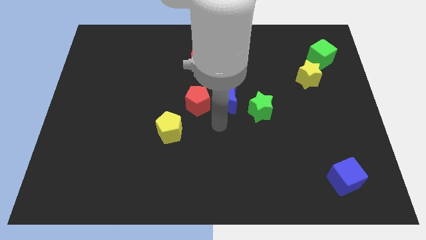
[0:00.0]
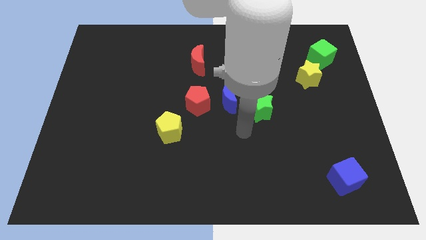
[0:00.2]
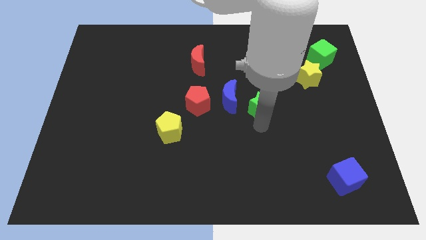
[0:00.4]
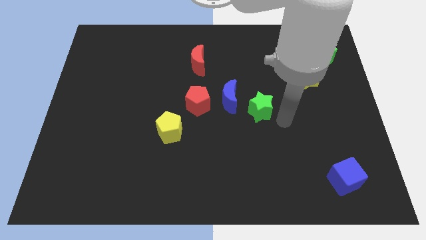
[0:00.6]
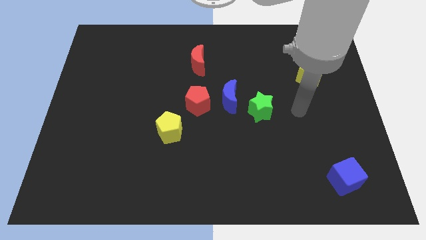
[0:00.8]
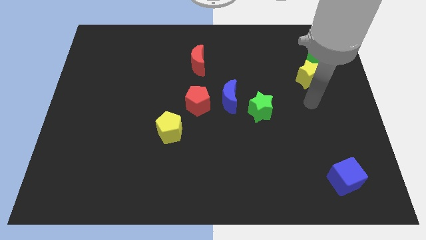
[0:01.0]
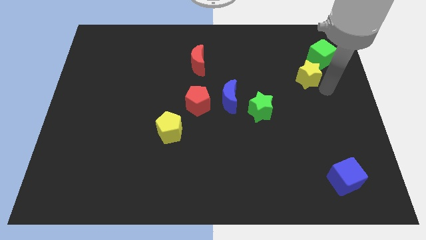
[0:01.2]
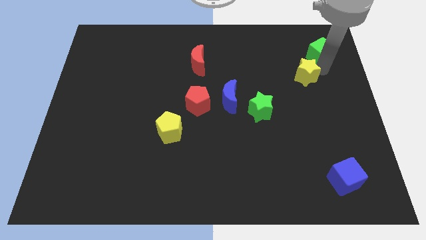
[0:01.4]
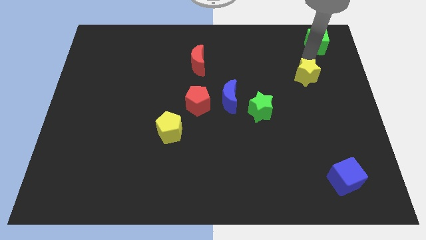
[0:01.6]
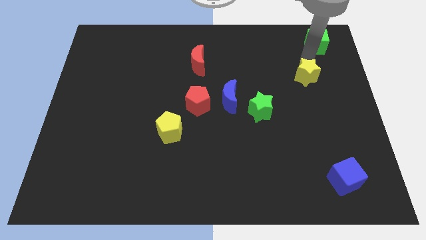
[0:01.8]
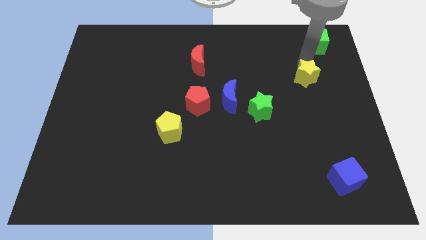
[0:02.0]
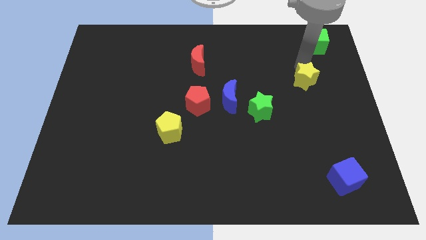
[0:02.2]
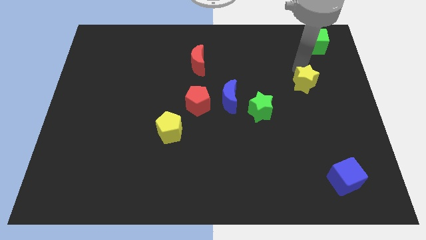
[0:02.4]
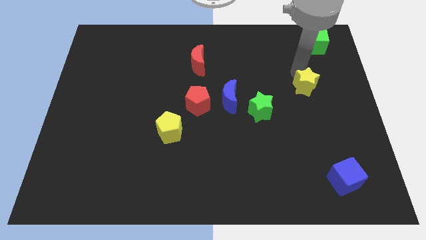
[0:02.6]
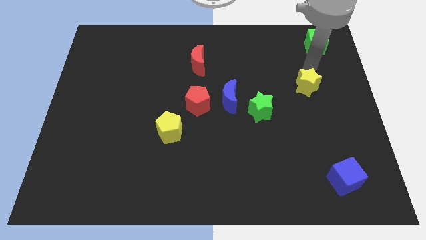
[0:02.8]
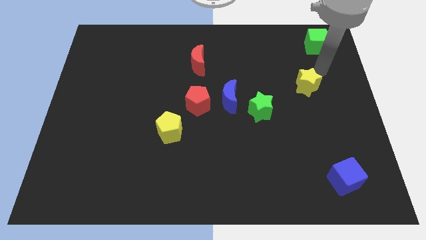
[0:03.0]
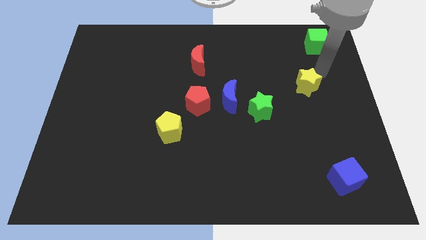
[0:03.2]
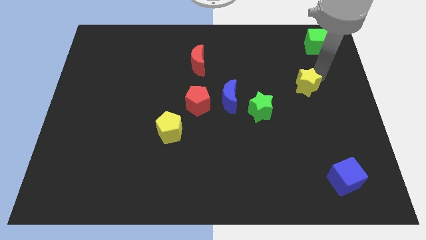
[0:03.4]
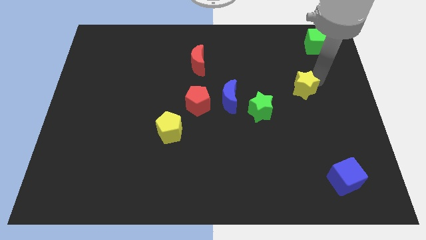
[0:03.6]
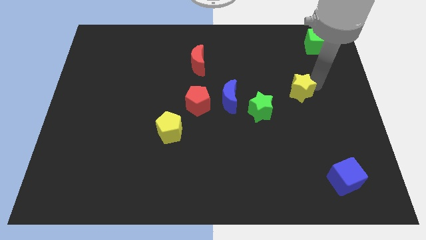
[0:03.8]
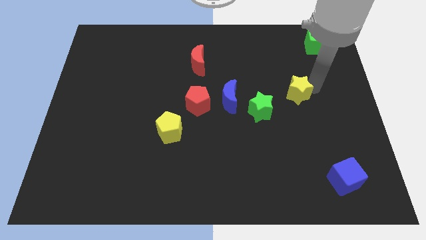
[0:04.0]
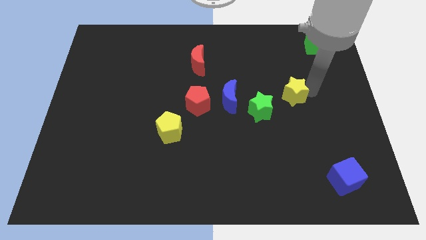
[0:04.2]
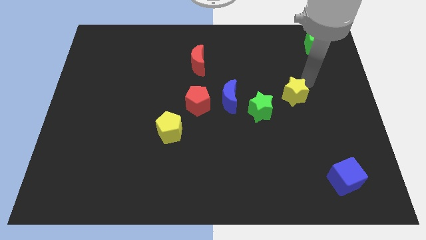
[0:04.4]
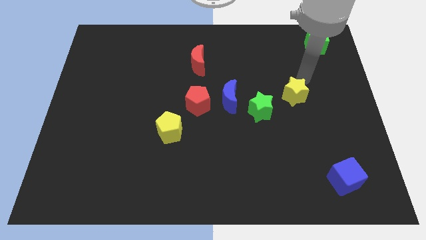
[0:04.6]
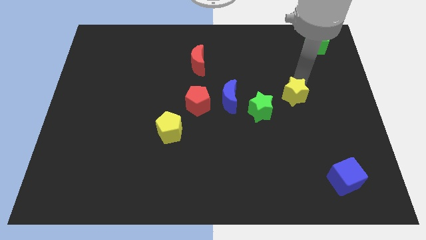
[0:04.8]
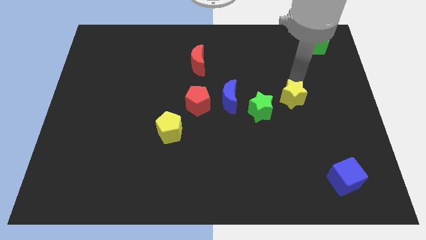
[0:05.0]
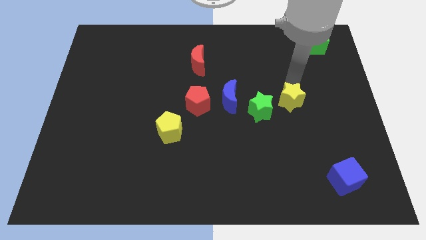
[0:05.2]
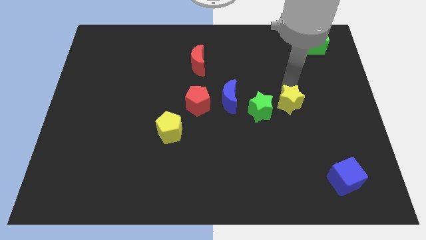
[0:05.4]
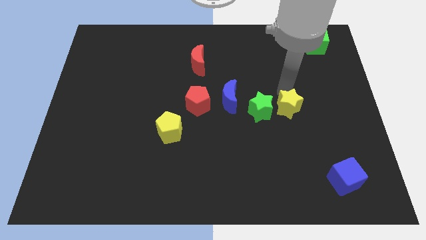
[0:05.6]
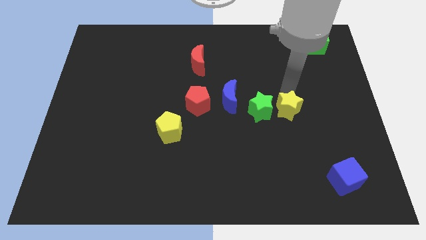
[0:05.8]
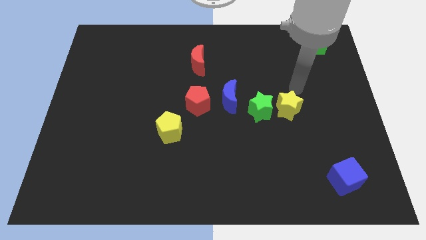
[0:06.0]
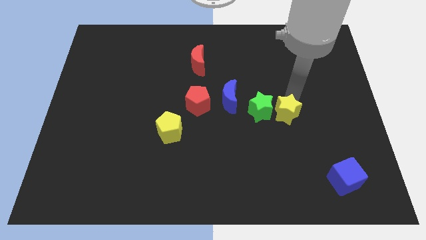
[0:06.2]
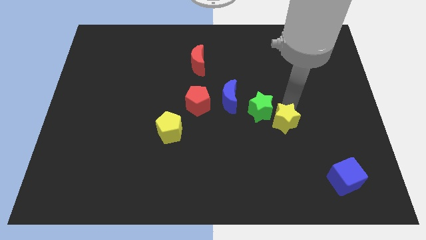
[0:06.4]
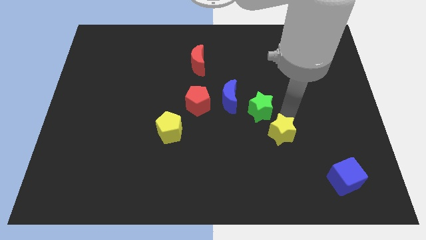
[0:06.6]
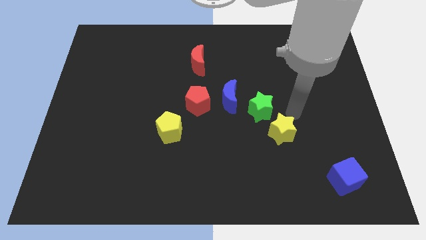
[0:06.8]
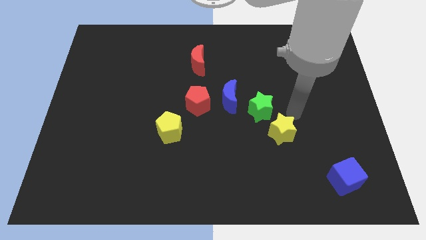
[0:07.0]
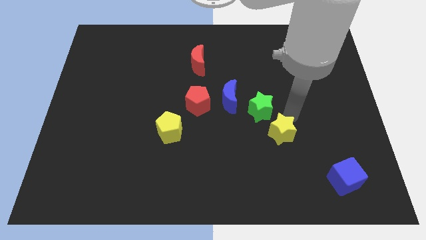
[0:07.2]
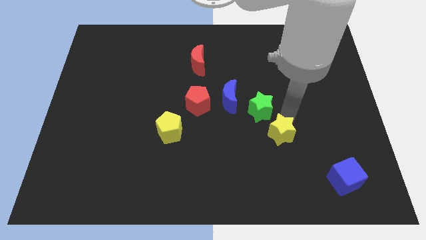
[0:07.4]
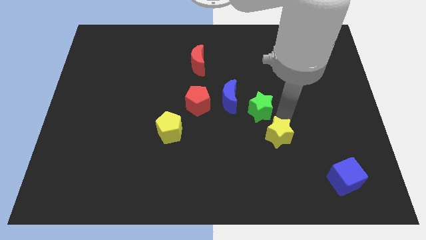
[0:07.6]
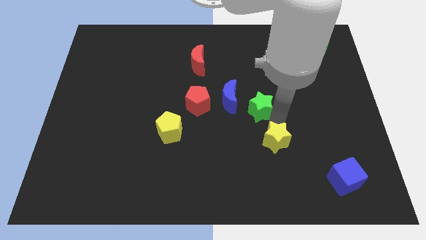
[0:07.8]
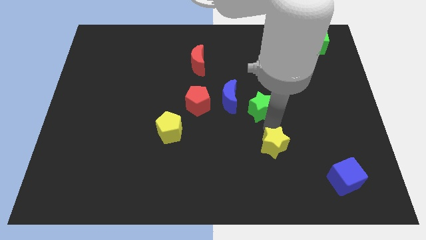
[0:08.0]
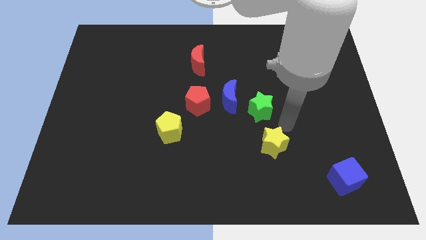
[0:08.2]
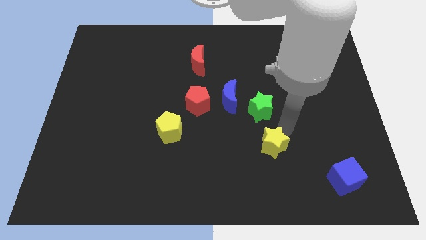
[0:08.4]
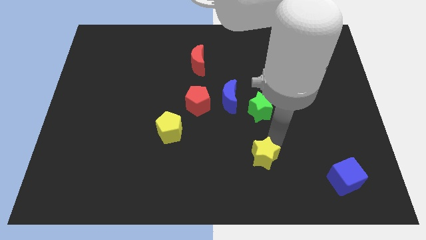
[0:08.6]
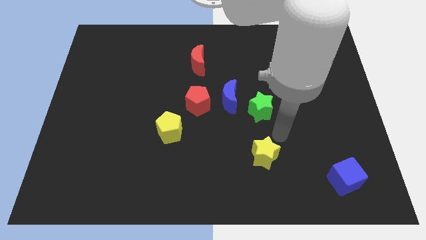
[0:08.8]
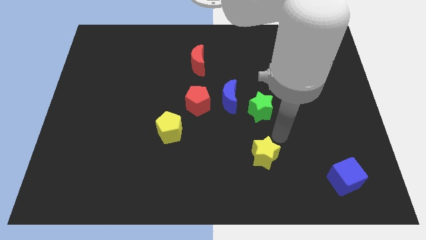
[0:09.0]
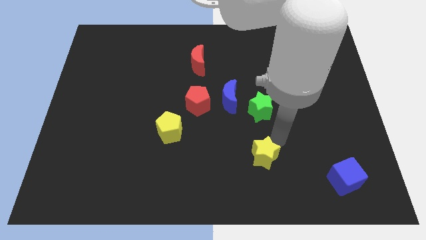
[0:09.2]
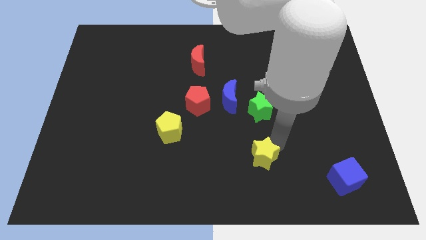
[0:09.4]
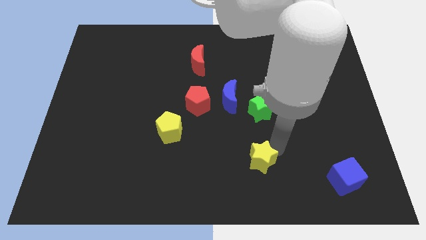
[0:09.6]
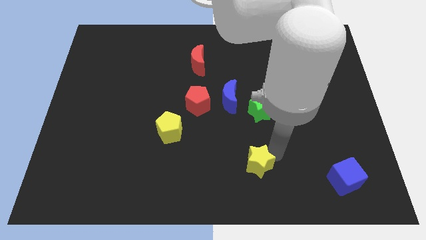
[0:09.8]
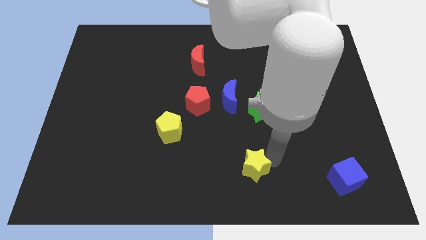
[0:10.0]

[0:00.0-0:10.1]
push the yellow star to the bottom

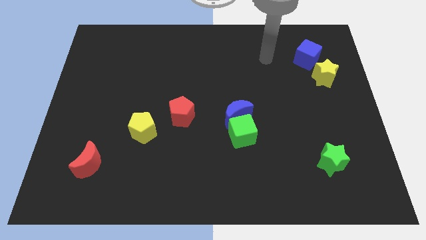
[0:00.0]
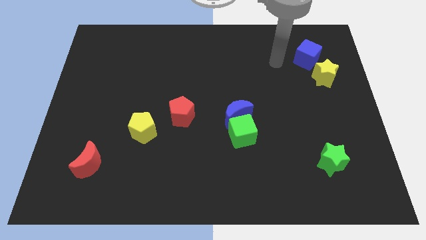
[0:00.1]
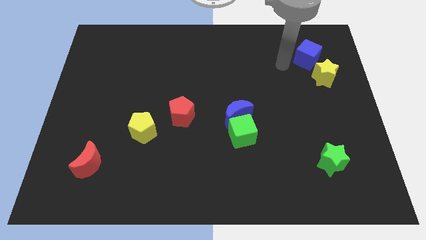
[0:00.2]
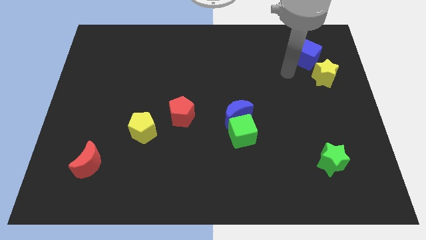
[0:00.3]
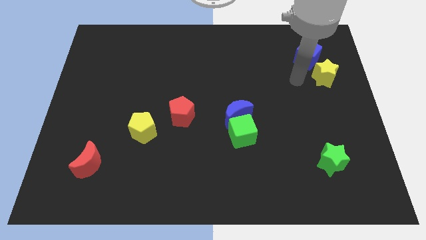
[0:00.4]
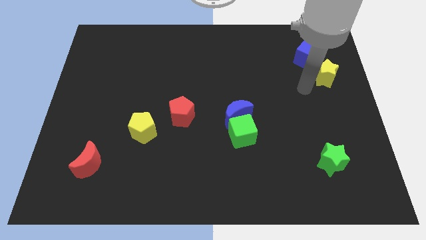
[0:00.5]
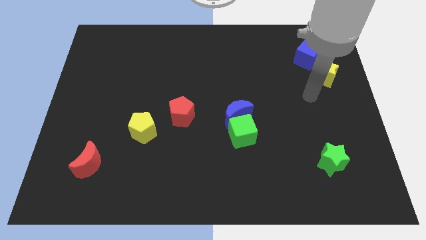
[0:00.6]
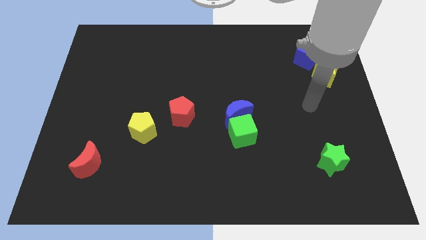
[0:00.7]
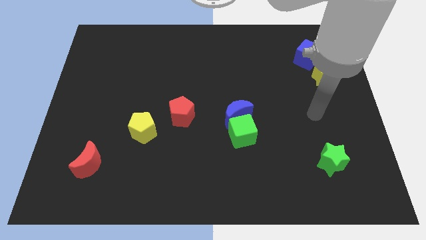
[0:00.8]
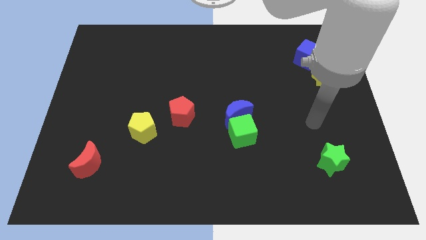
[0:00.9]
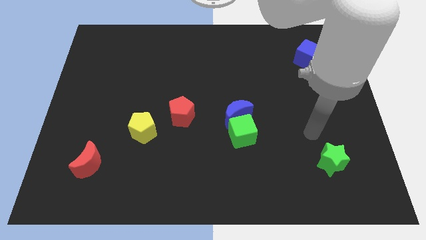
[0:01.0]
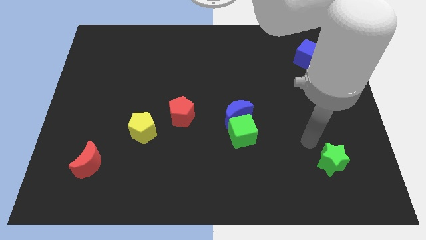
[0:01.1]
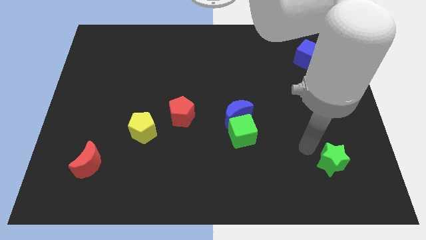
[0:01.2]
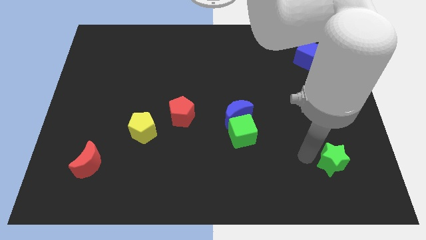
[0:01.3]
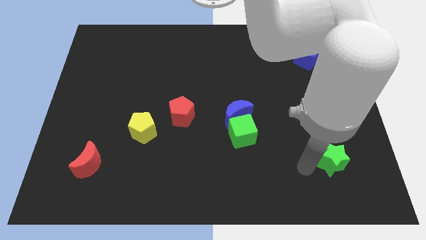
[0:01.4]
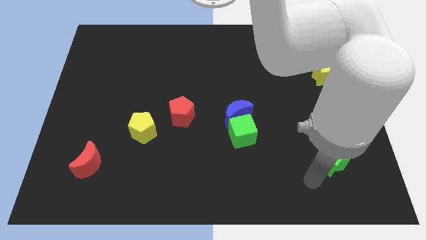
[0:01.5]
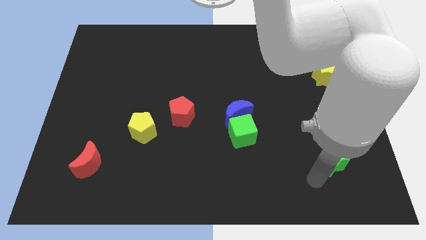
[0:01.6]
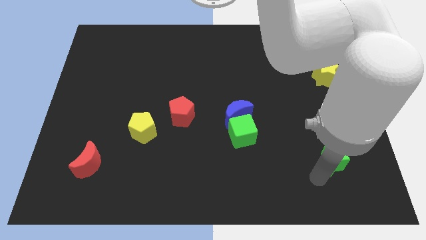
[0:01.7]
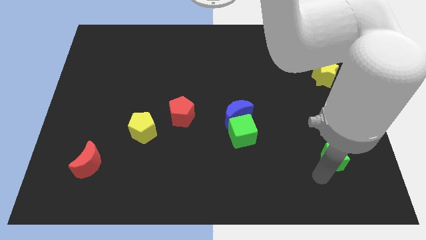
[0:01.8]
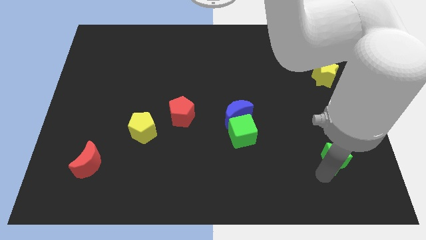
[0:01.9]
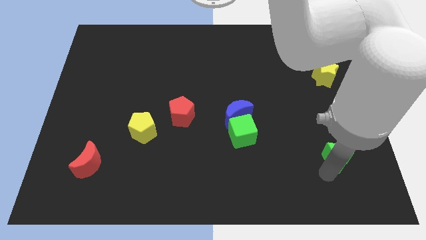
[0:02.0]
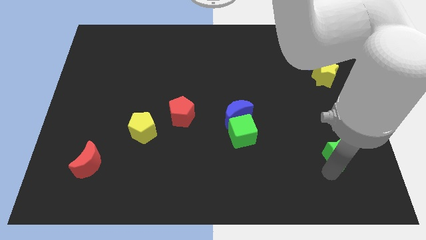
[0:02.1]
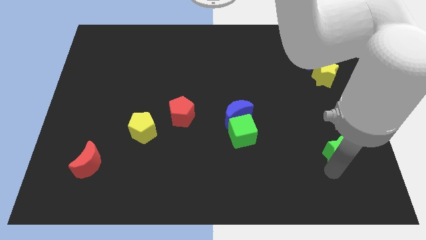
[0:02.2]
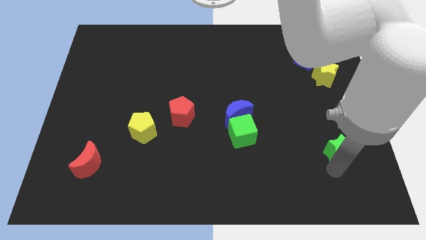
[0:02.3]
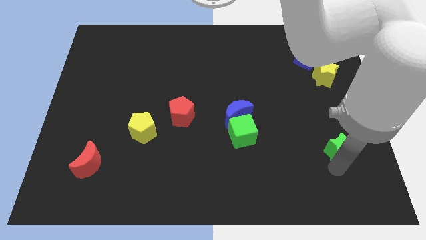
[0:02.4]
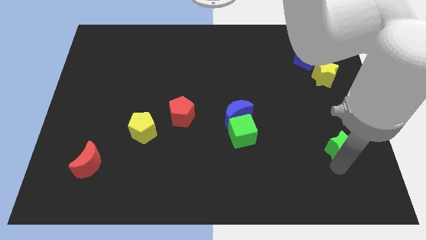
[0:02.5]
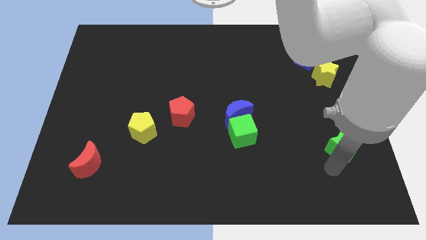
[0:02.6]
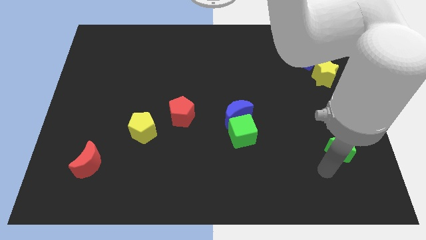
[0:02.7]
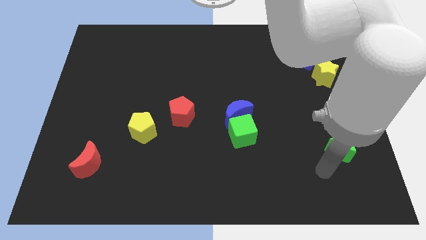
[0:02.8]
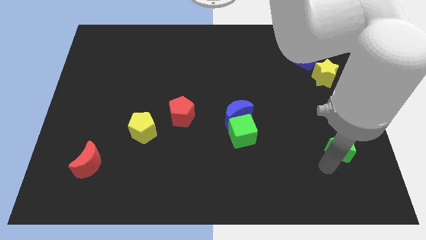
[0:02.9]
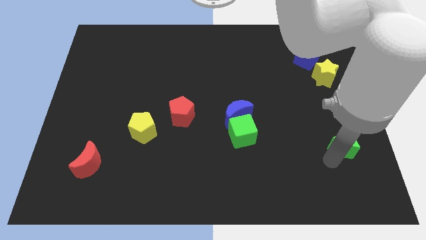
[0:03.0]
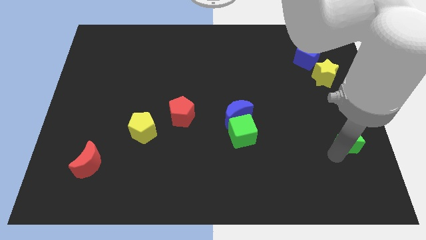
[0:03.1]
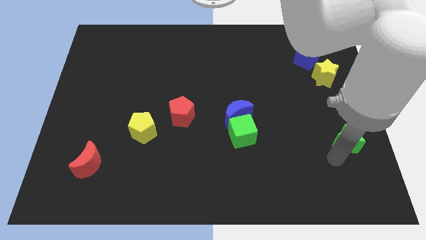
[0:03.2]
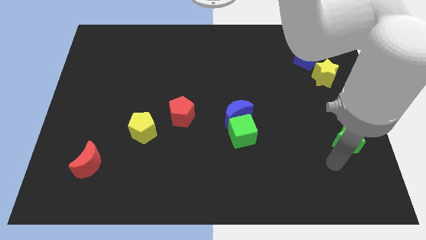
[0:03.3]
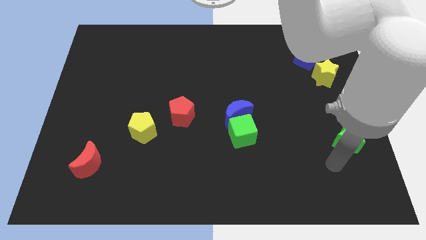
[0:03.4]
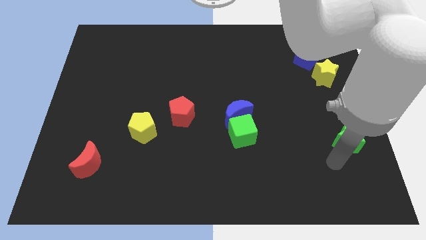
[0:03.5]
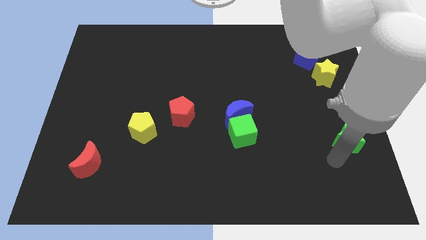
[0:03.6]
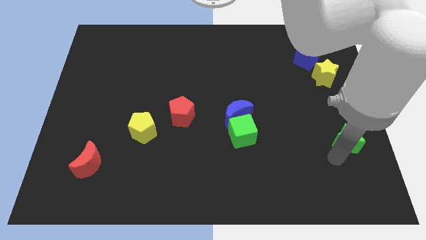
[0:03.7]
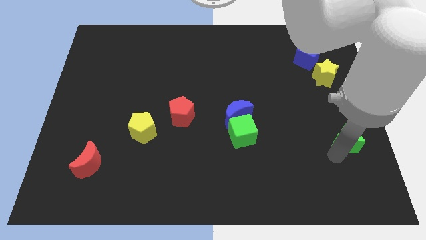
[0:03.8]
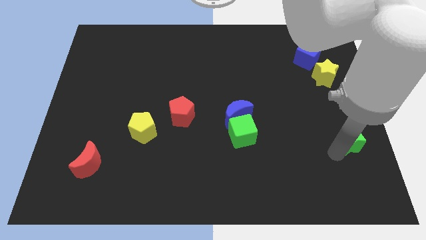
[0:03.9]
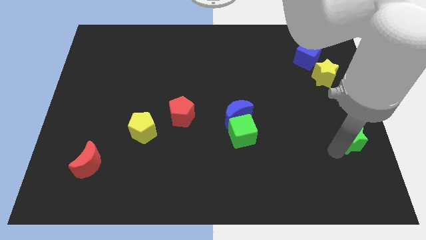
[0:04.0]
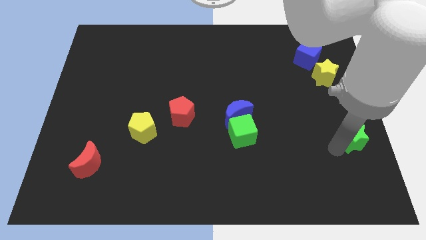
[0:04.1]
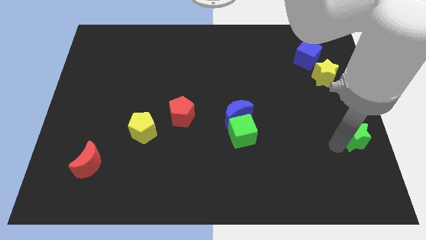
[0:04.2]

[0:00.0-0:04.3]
move the green star to the right side of the board
